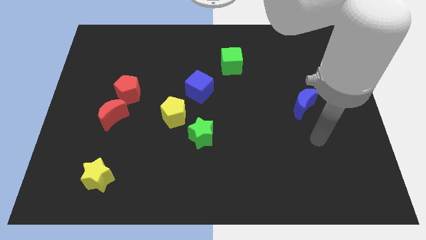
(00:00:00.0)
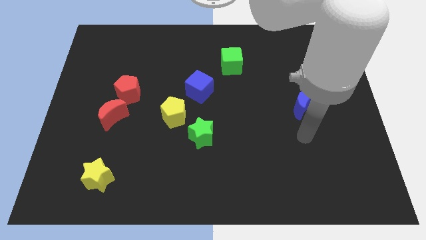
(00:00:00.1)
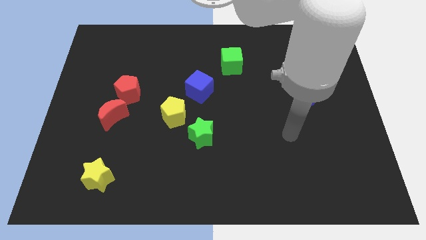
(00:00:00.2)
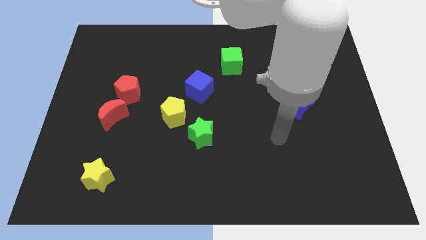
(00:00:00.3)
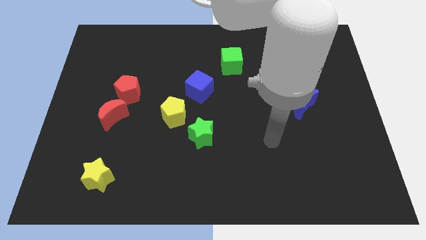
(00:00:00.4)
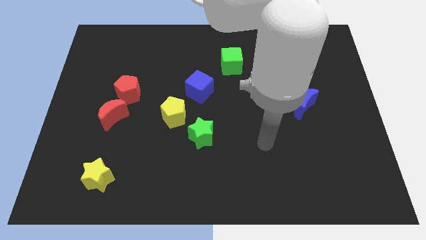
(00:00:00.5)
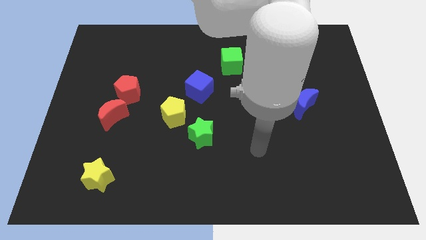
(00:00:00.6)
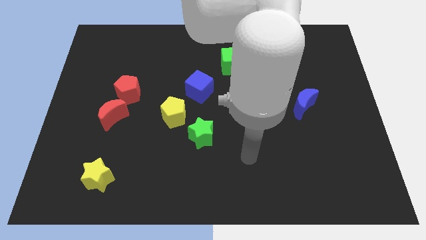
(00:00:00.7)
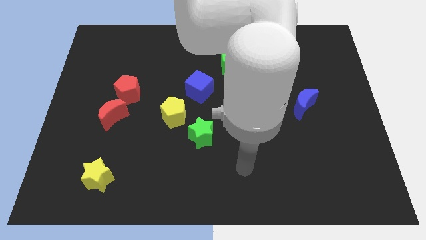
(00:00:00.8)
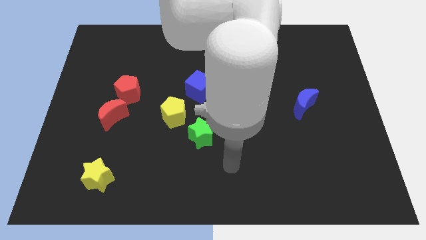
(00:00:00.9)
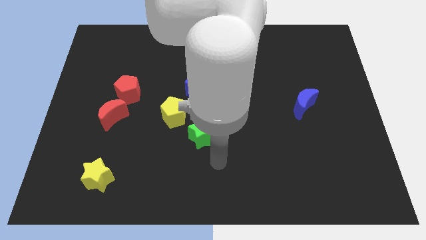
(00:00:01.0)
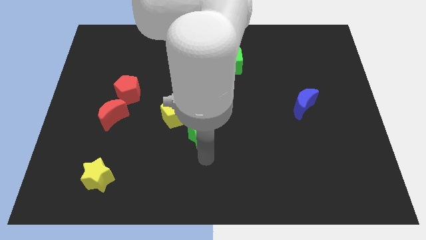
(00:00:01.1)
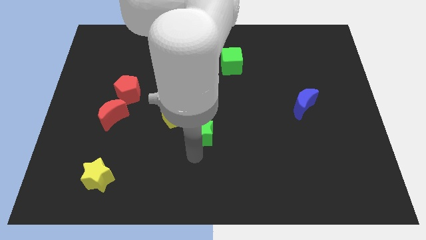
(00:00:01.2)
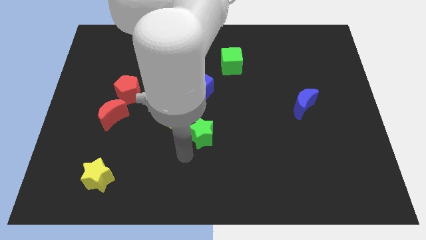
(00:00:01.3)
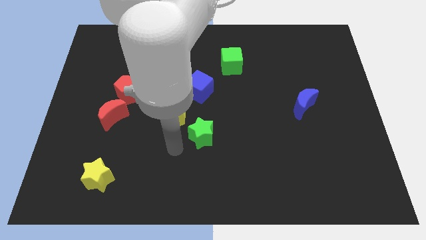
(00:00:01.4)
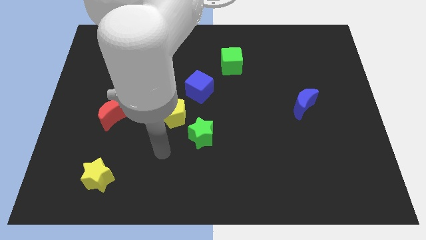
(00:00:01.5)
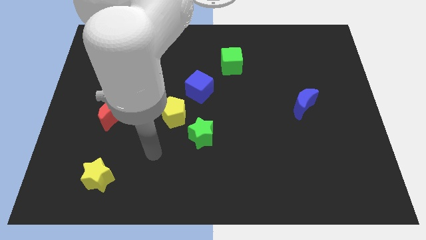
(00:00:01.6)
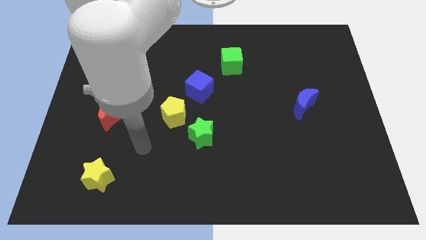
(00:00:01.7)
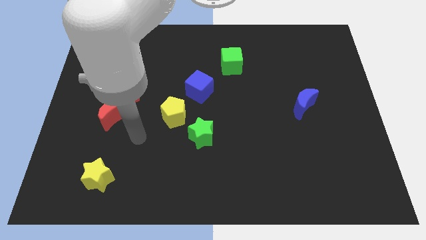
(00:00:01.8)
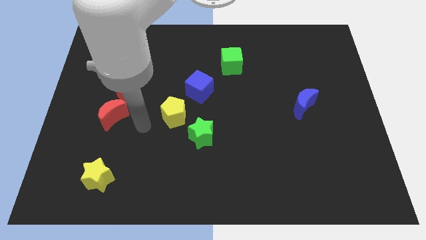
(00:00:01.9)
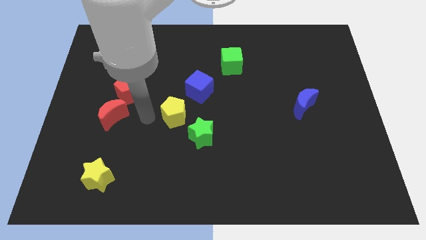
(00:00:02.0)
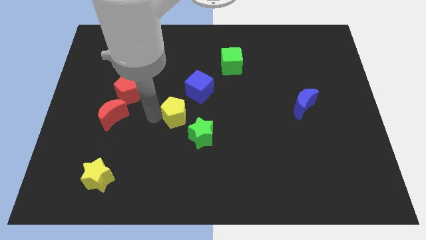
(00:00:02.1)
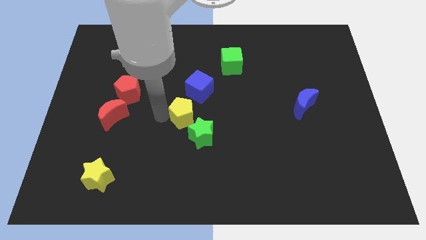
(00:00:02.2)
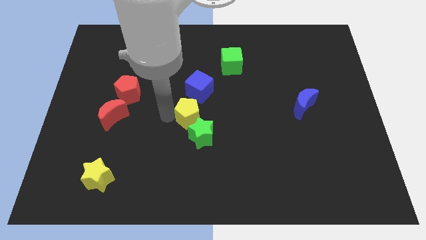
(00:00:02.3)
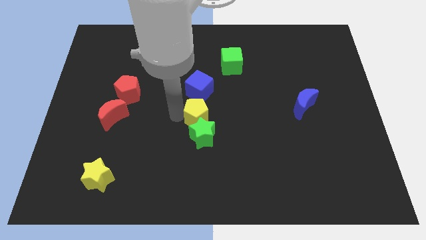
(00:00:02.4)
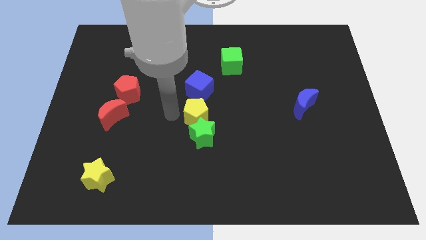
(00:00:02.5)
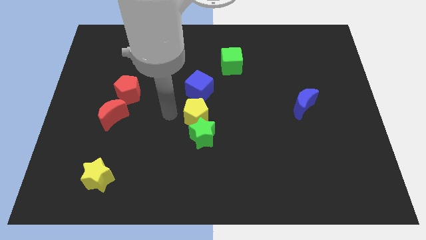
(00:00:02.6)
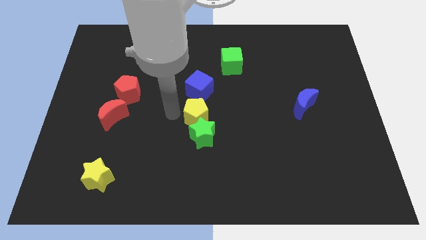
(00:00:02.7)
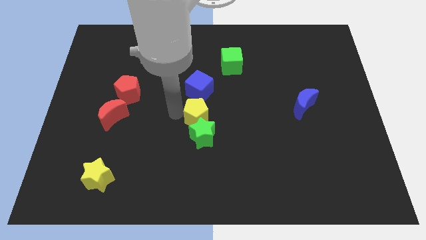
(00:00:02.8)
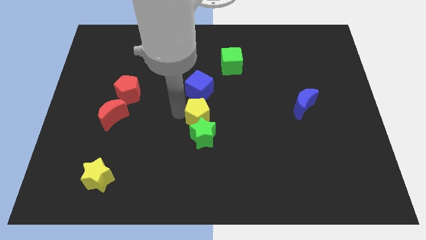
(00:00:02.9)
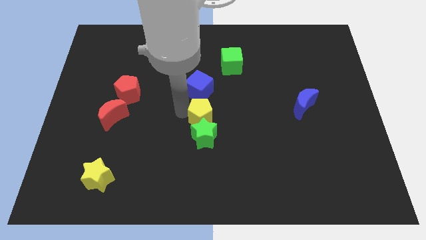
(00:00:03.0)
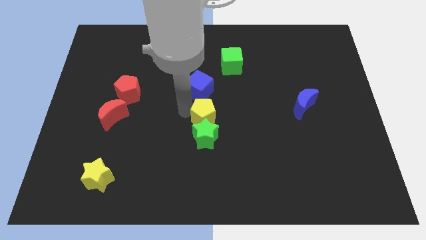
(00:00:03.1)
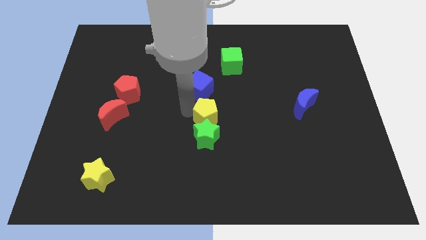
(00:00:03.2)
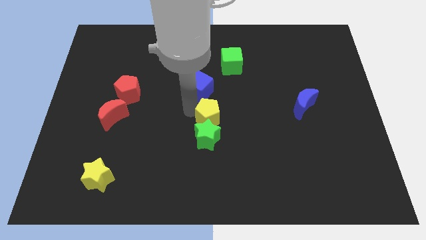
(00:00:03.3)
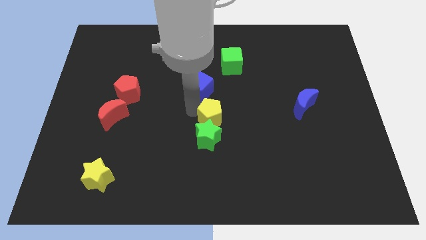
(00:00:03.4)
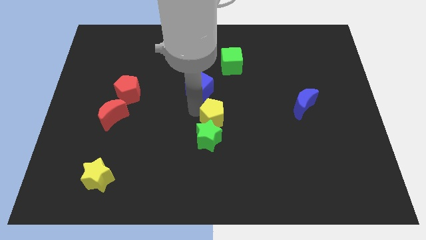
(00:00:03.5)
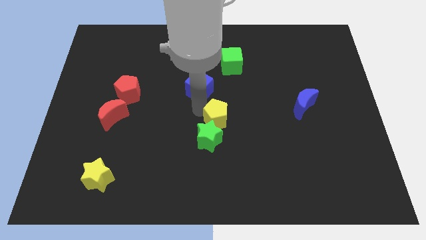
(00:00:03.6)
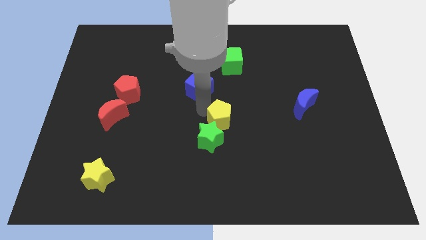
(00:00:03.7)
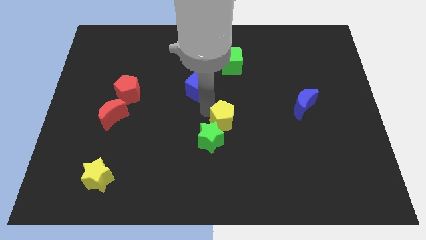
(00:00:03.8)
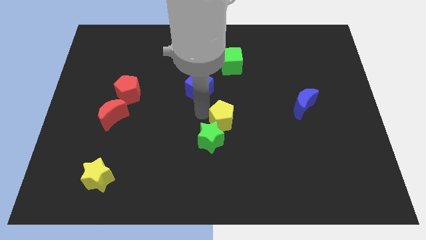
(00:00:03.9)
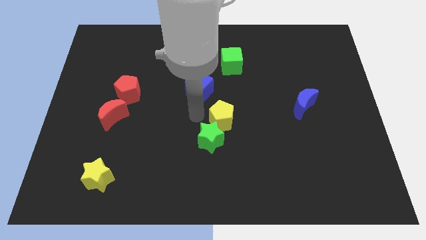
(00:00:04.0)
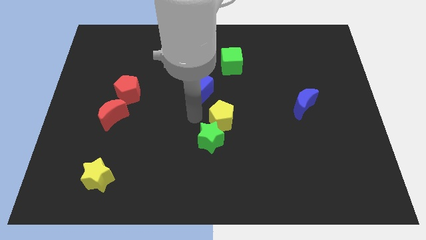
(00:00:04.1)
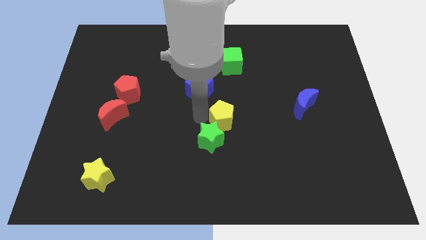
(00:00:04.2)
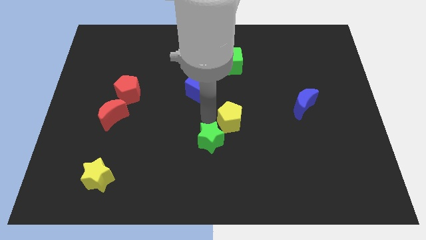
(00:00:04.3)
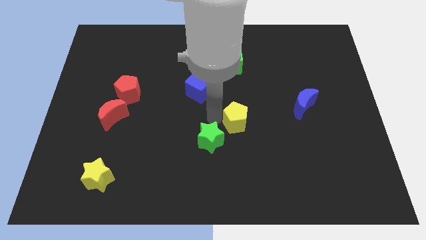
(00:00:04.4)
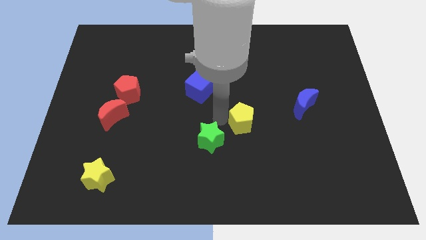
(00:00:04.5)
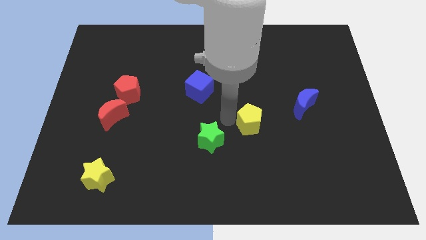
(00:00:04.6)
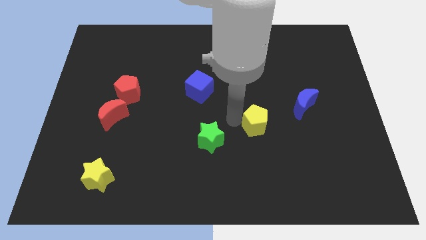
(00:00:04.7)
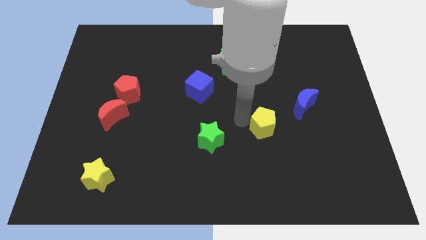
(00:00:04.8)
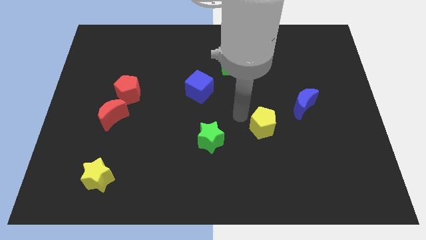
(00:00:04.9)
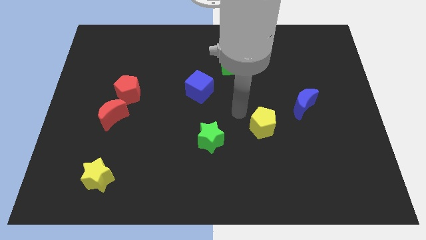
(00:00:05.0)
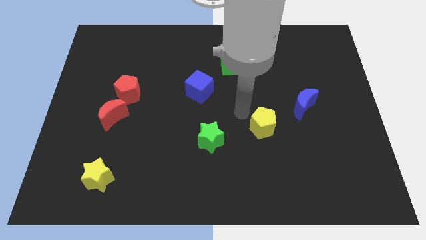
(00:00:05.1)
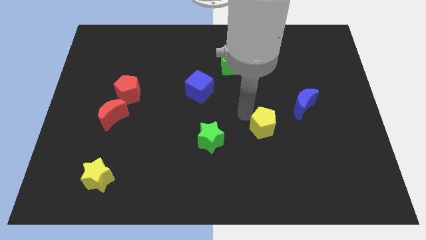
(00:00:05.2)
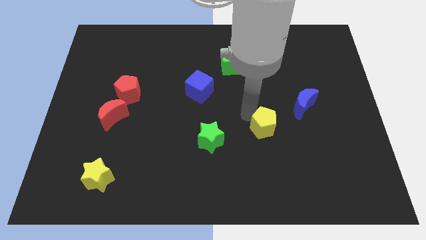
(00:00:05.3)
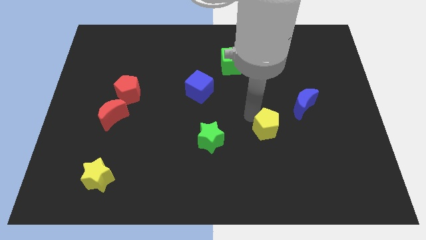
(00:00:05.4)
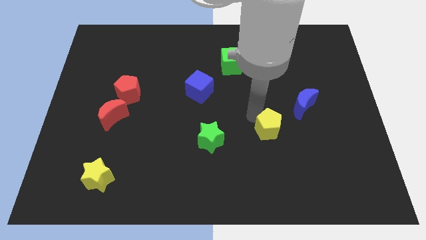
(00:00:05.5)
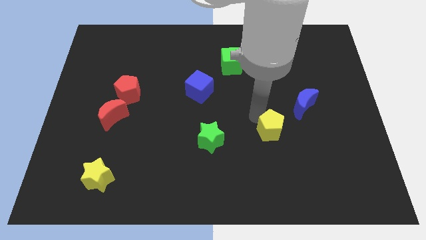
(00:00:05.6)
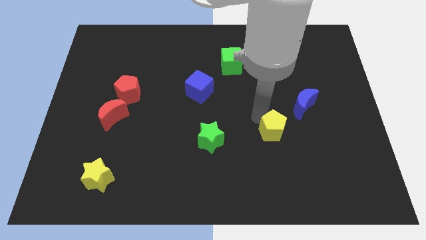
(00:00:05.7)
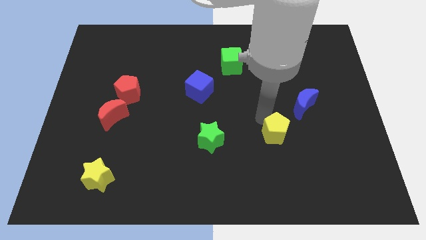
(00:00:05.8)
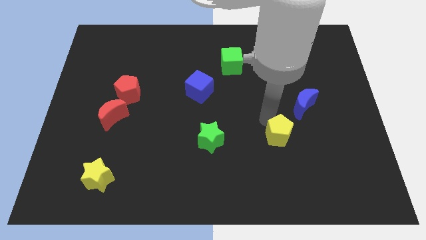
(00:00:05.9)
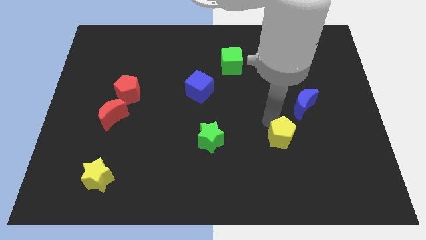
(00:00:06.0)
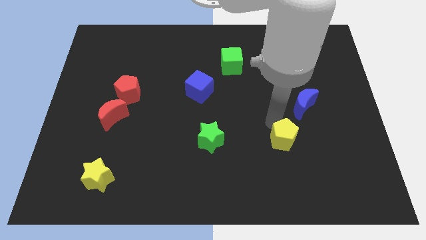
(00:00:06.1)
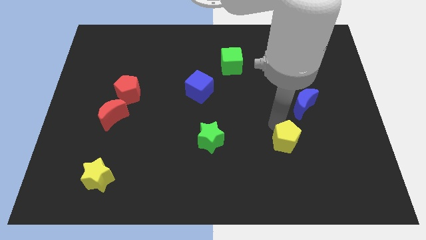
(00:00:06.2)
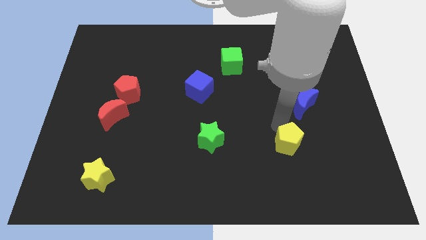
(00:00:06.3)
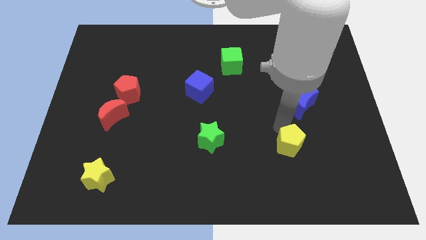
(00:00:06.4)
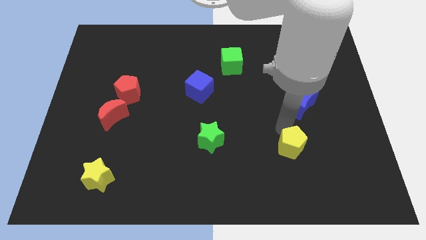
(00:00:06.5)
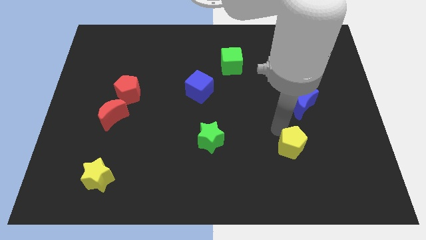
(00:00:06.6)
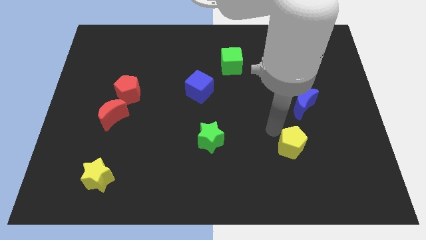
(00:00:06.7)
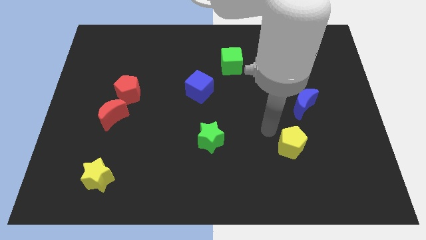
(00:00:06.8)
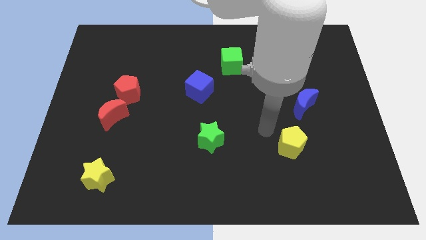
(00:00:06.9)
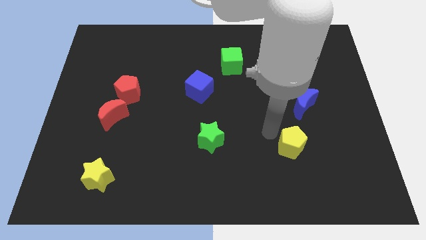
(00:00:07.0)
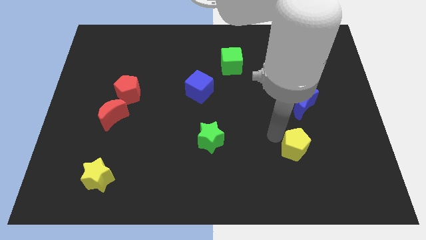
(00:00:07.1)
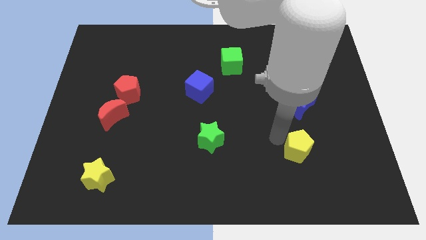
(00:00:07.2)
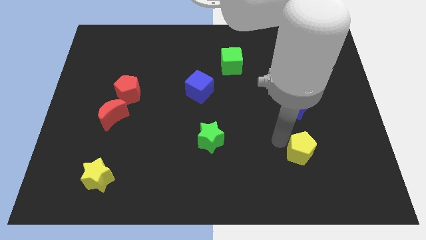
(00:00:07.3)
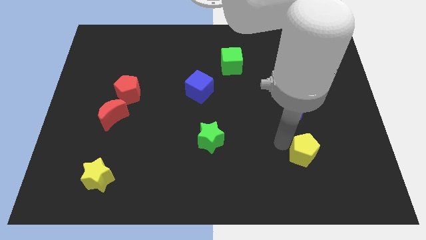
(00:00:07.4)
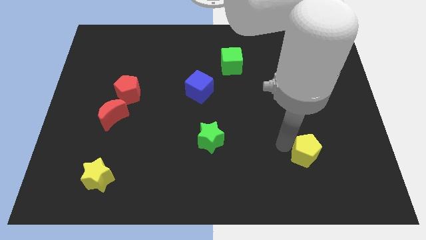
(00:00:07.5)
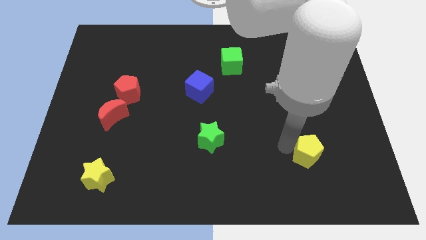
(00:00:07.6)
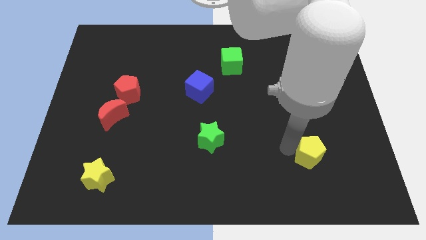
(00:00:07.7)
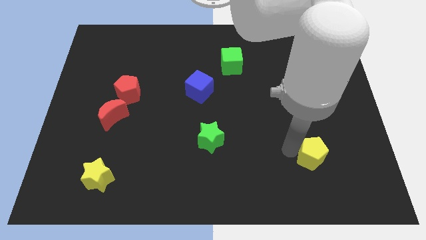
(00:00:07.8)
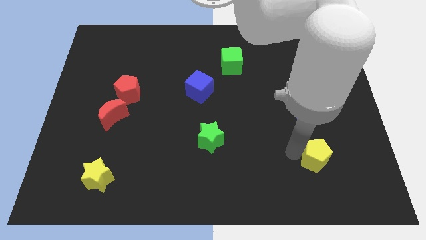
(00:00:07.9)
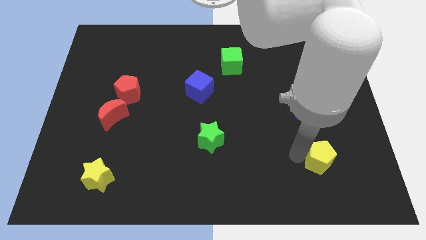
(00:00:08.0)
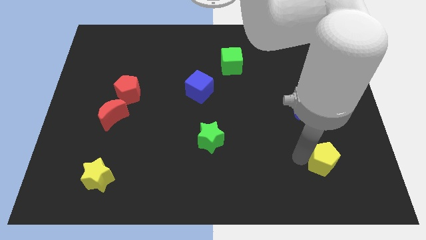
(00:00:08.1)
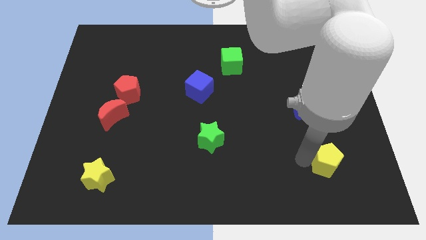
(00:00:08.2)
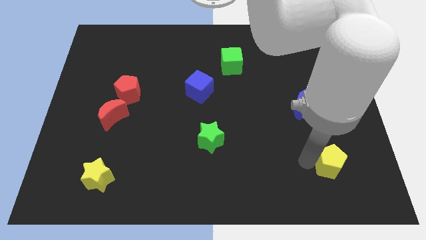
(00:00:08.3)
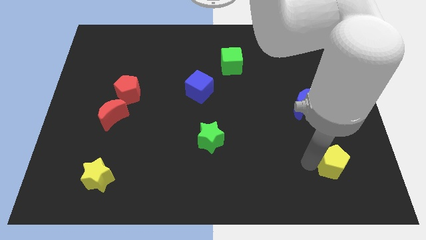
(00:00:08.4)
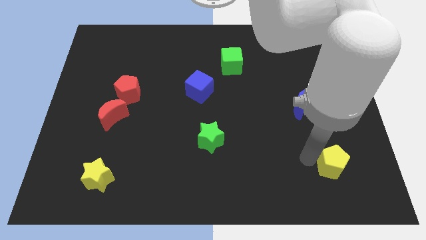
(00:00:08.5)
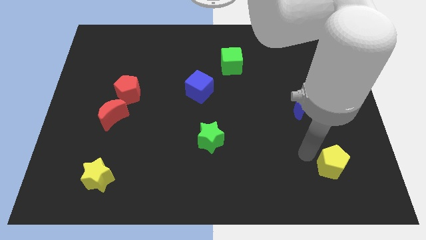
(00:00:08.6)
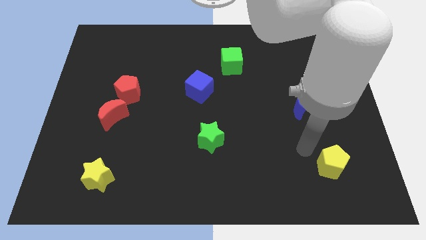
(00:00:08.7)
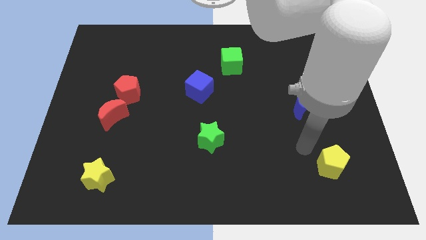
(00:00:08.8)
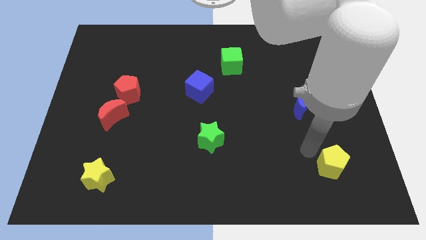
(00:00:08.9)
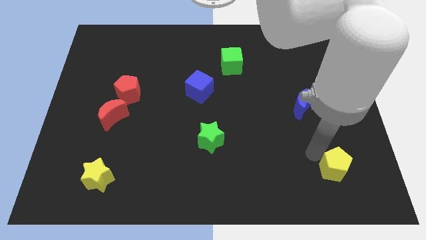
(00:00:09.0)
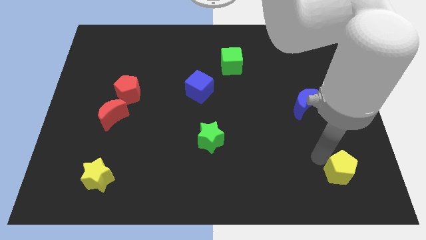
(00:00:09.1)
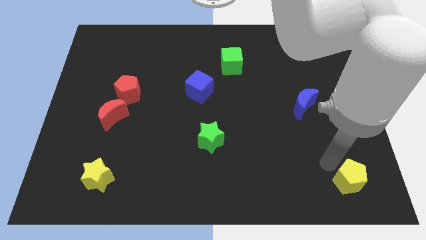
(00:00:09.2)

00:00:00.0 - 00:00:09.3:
slide the yellow pentagon to the bottom right
